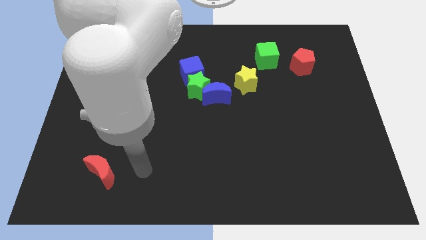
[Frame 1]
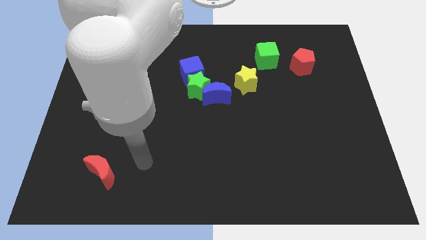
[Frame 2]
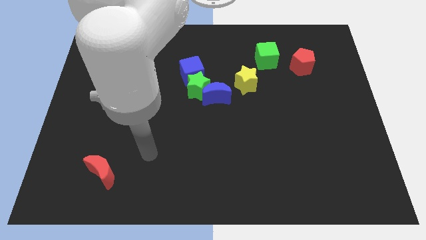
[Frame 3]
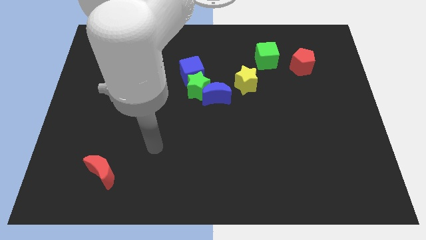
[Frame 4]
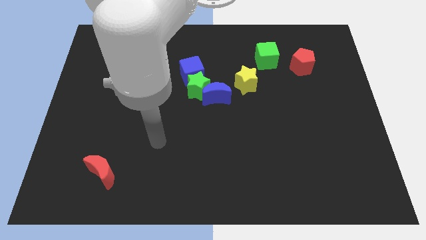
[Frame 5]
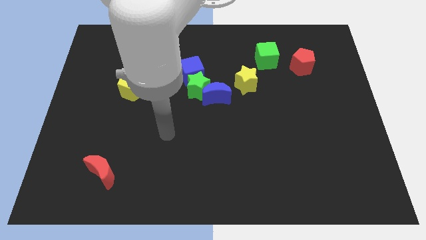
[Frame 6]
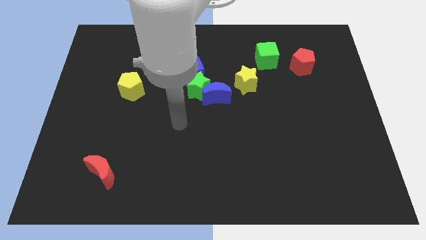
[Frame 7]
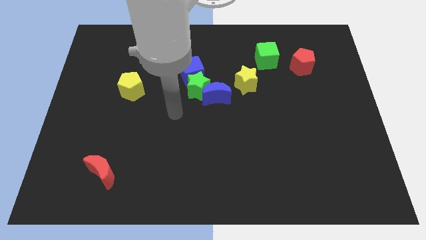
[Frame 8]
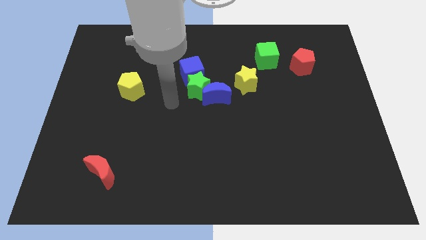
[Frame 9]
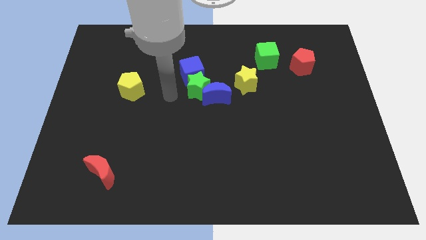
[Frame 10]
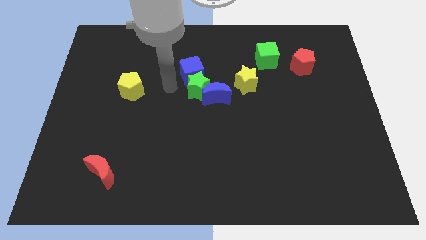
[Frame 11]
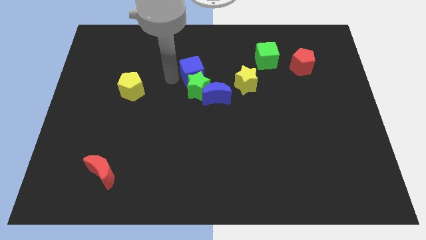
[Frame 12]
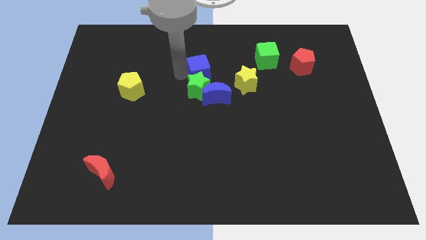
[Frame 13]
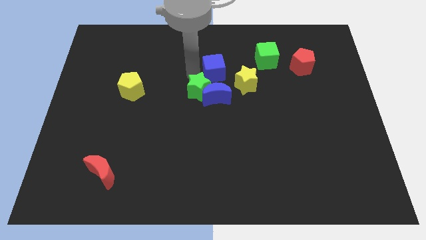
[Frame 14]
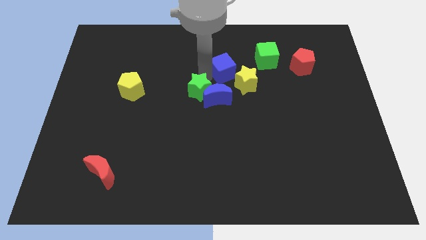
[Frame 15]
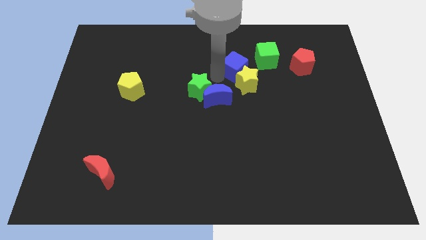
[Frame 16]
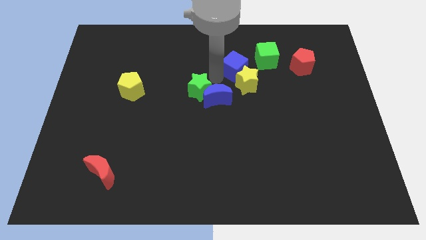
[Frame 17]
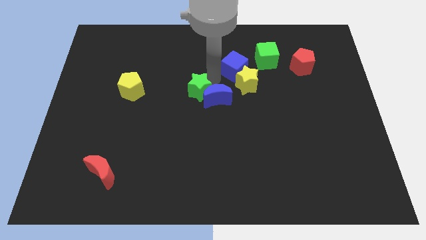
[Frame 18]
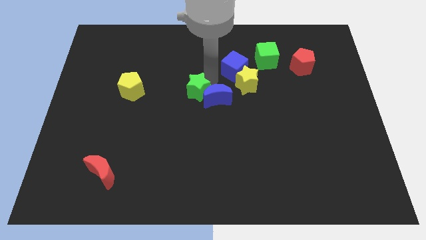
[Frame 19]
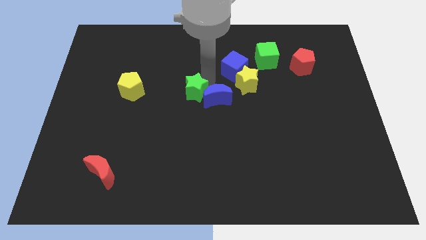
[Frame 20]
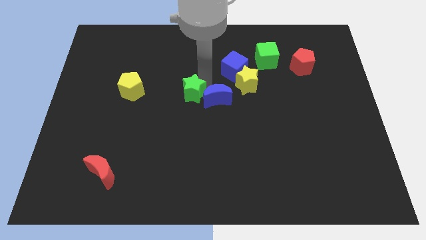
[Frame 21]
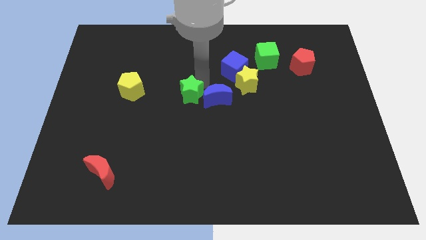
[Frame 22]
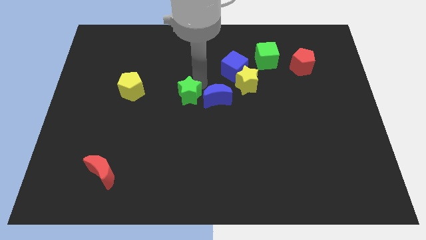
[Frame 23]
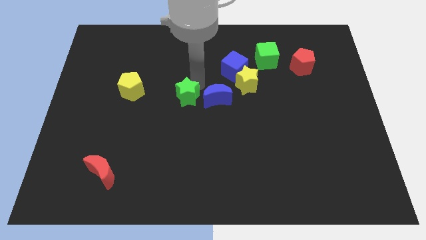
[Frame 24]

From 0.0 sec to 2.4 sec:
separate the green star from the blue moon and blue cube

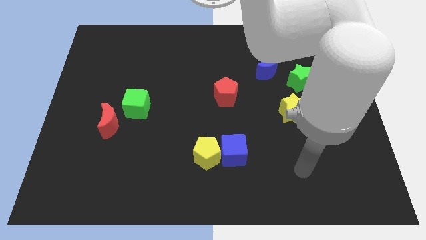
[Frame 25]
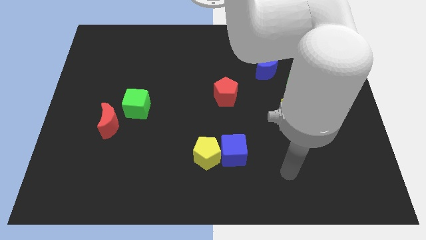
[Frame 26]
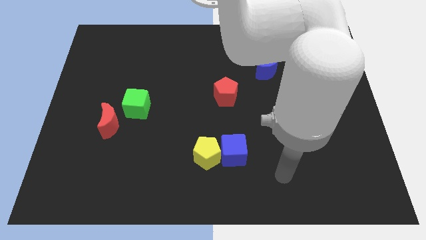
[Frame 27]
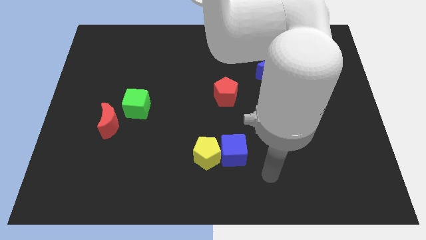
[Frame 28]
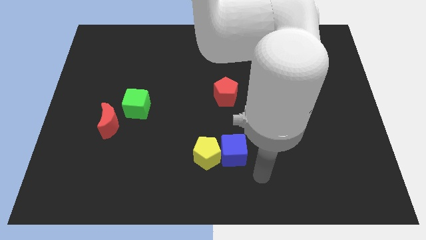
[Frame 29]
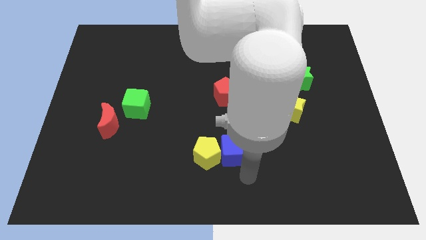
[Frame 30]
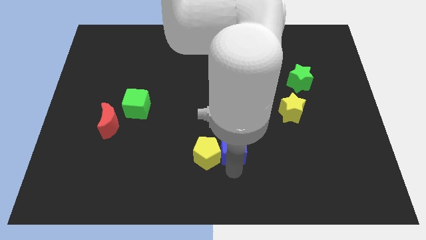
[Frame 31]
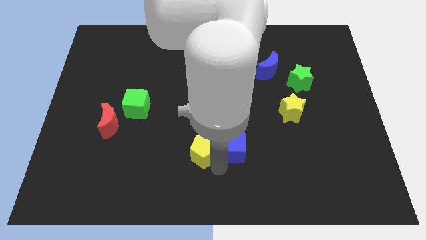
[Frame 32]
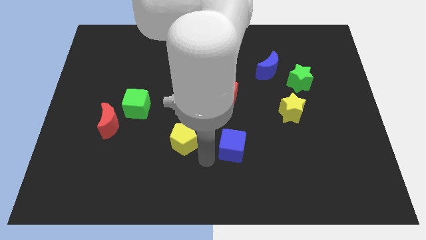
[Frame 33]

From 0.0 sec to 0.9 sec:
move the blue cube away from the yellow pentagon

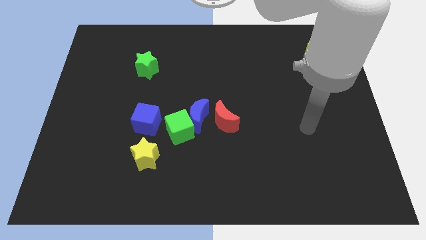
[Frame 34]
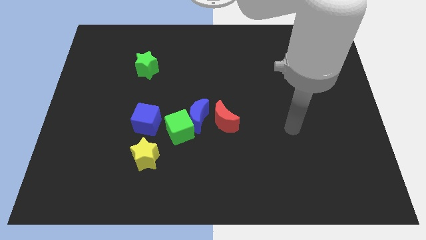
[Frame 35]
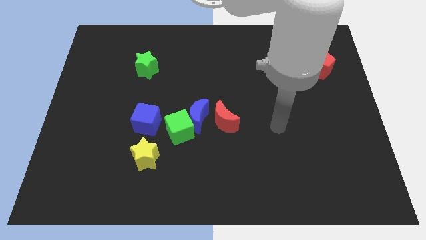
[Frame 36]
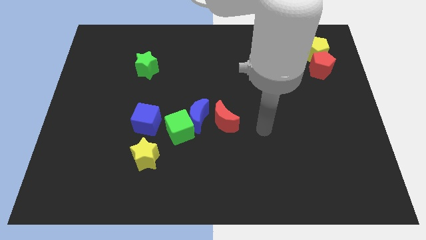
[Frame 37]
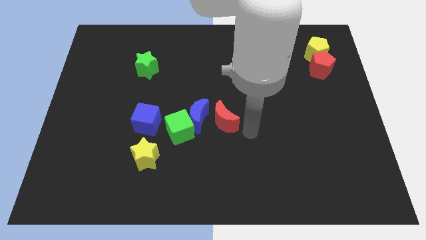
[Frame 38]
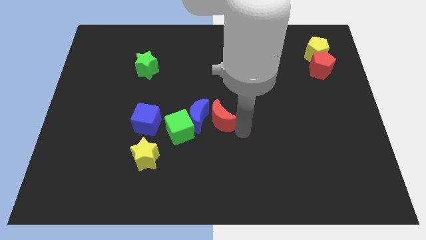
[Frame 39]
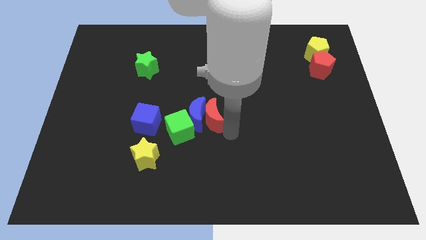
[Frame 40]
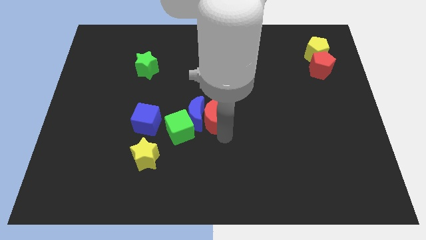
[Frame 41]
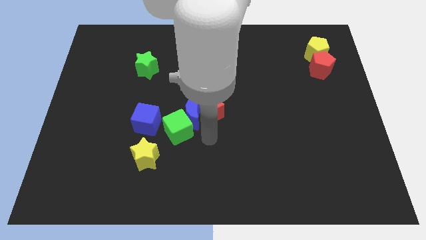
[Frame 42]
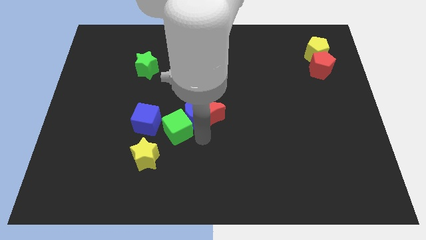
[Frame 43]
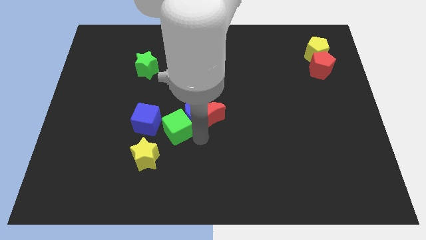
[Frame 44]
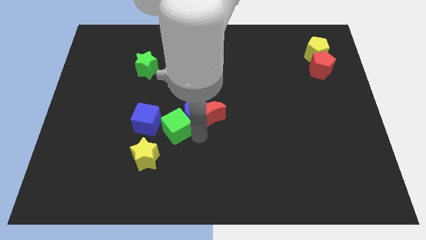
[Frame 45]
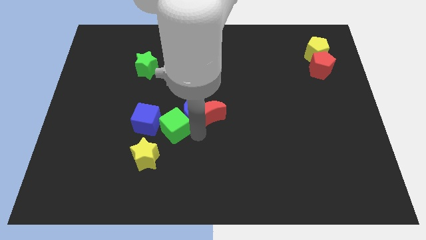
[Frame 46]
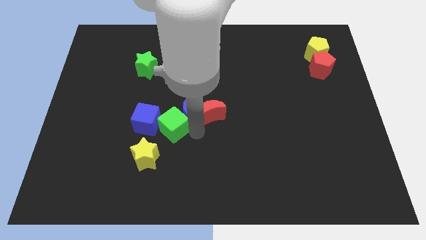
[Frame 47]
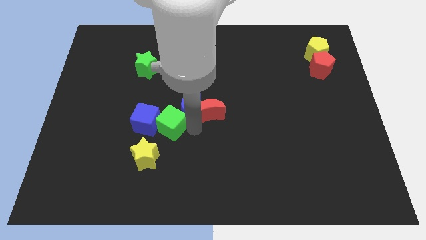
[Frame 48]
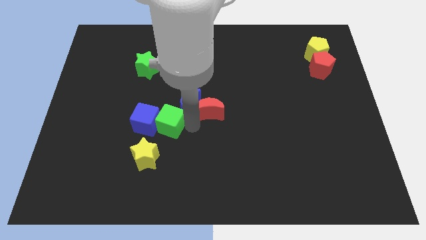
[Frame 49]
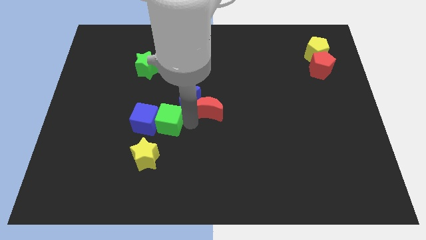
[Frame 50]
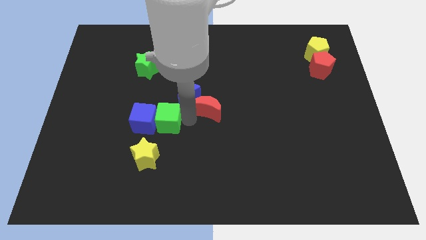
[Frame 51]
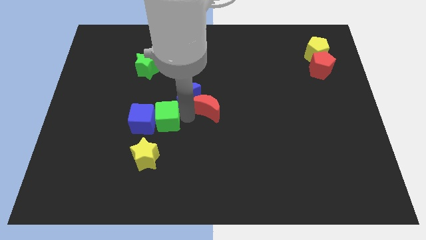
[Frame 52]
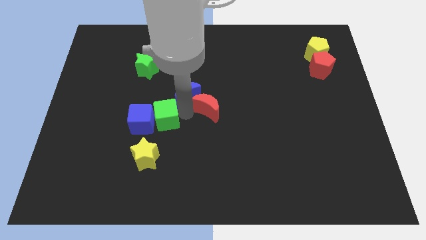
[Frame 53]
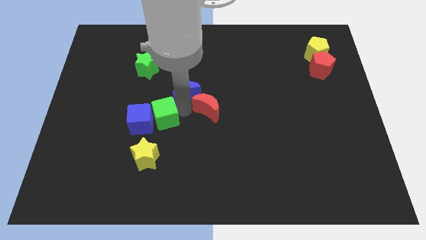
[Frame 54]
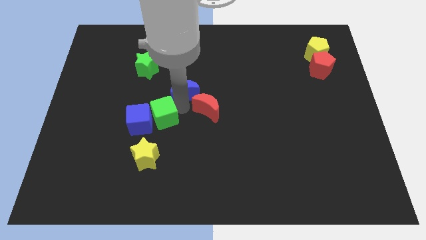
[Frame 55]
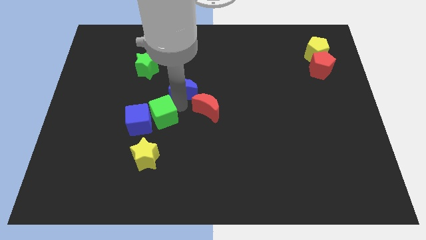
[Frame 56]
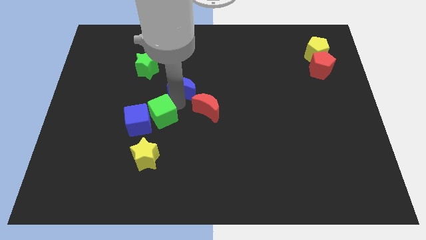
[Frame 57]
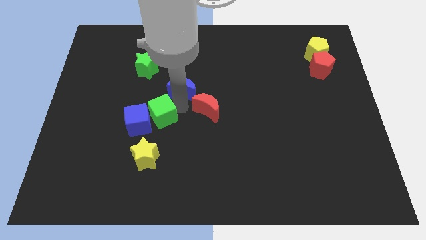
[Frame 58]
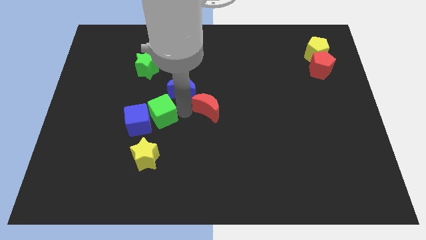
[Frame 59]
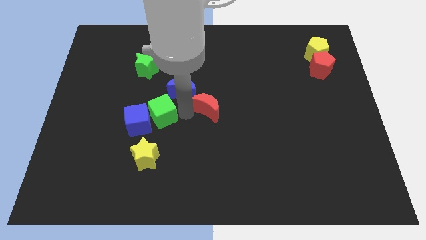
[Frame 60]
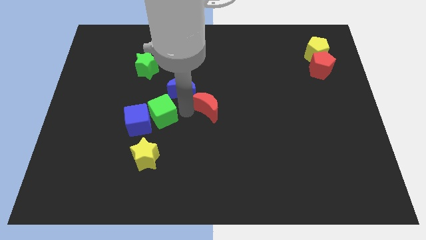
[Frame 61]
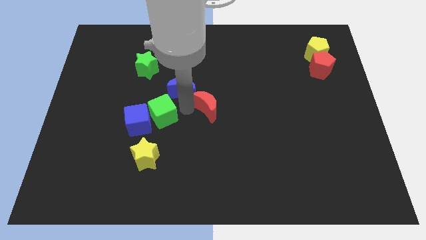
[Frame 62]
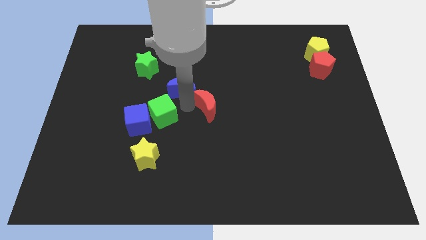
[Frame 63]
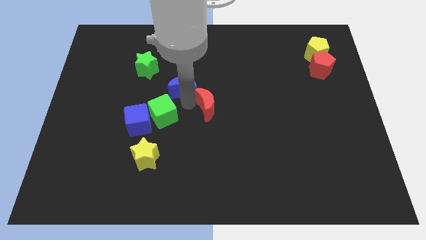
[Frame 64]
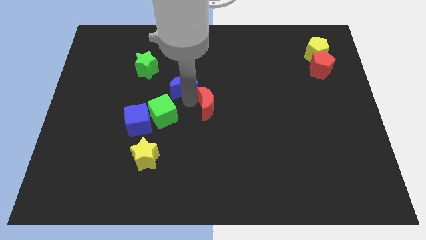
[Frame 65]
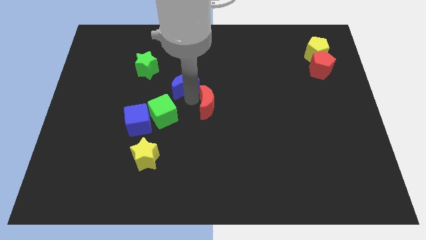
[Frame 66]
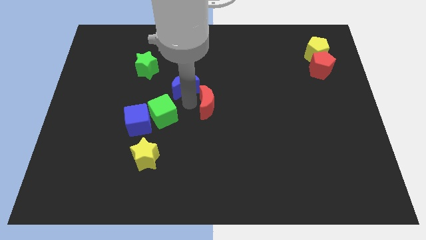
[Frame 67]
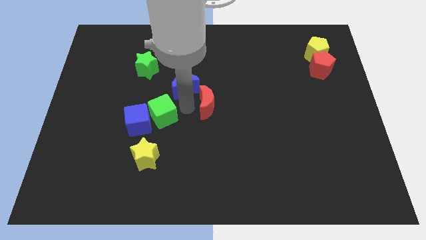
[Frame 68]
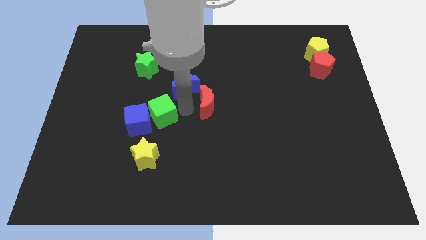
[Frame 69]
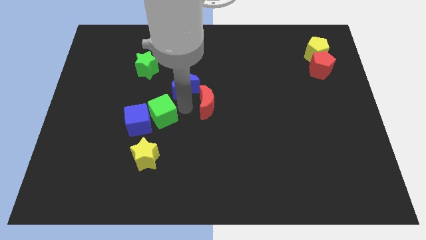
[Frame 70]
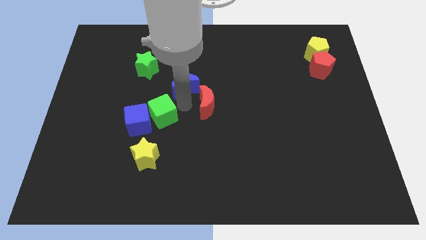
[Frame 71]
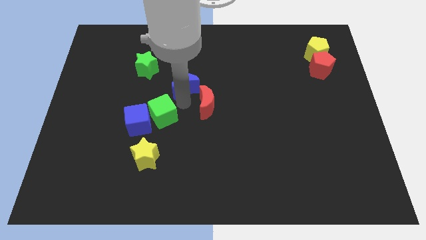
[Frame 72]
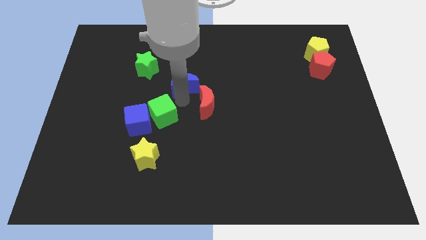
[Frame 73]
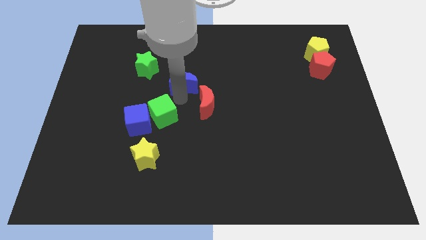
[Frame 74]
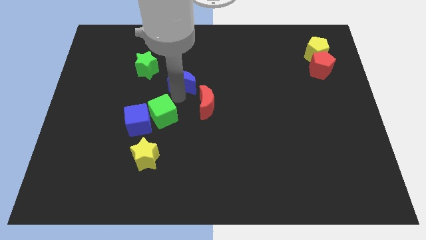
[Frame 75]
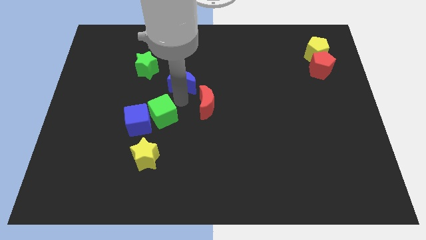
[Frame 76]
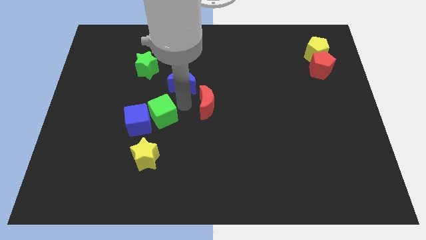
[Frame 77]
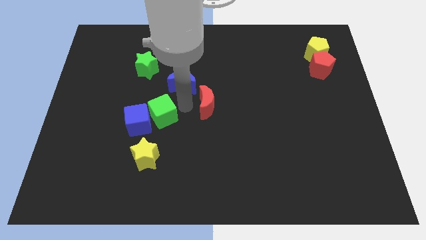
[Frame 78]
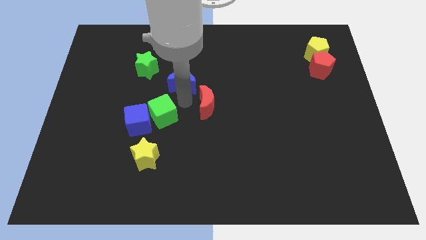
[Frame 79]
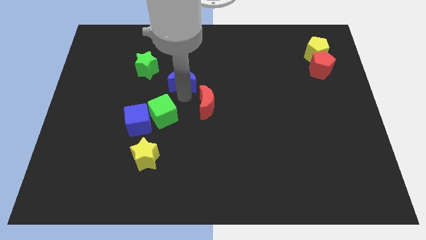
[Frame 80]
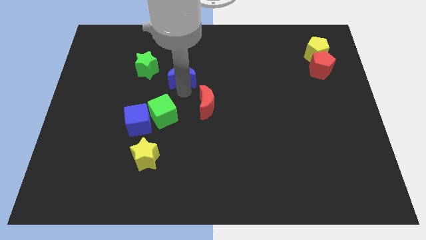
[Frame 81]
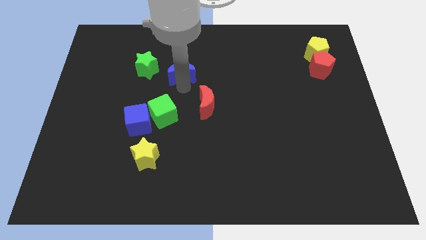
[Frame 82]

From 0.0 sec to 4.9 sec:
separate the blue moon from the green cube and red moon

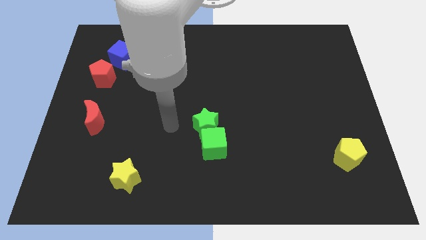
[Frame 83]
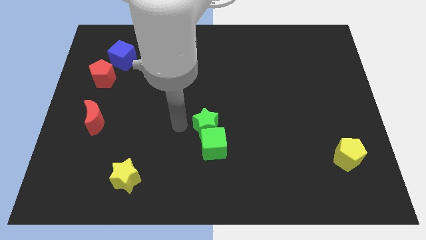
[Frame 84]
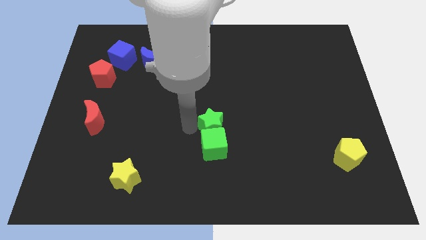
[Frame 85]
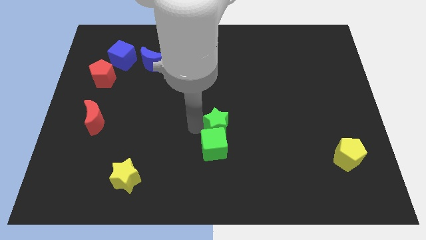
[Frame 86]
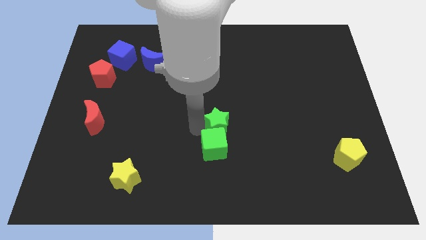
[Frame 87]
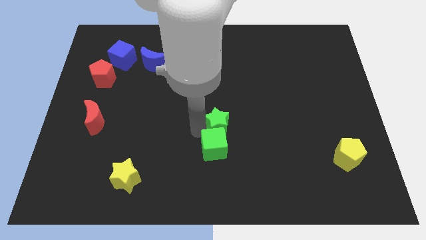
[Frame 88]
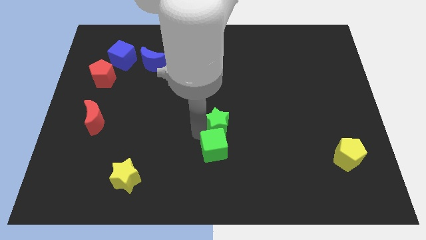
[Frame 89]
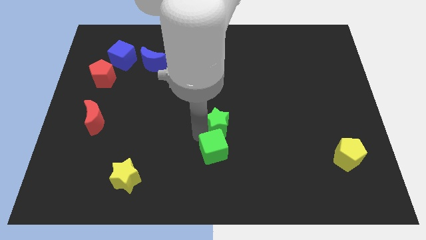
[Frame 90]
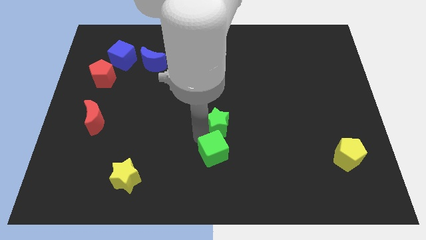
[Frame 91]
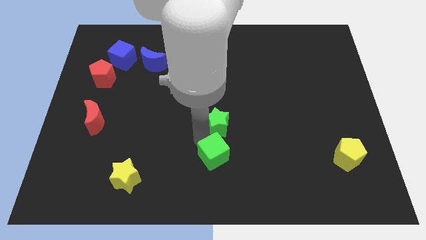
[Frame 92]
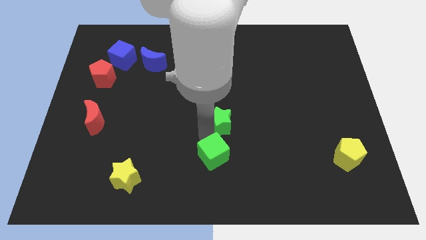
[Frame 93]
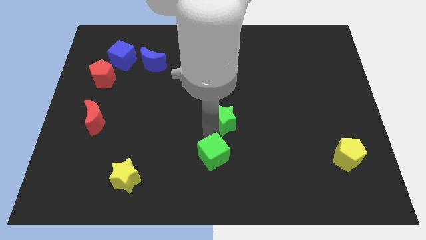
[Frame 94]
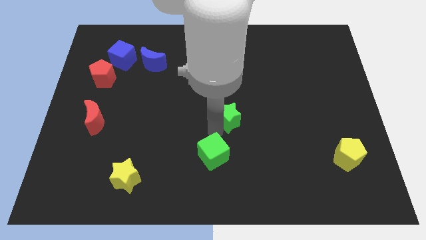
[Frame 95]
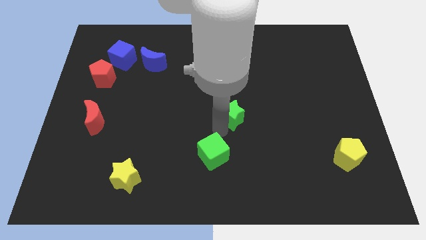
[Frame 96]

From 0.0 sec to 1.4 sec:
pull the green cube apart from the green star
